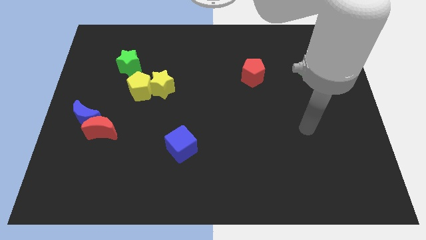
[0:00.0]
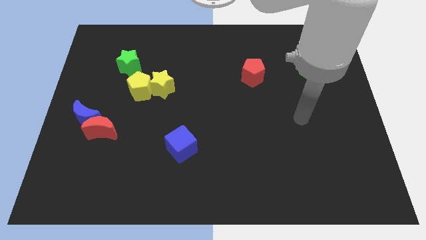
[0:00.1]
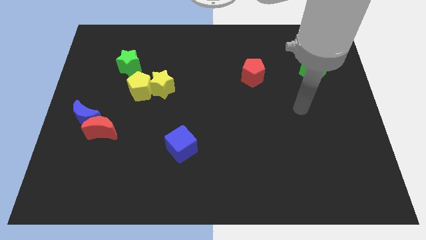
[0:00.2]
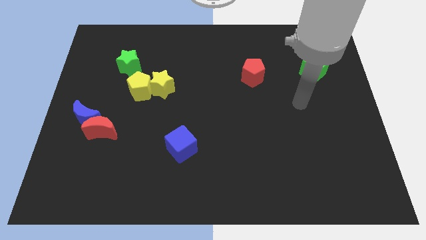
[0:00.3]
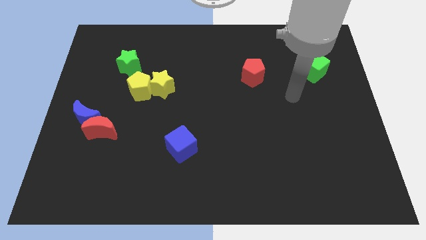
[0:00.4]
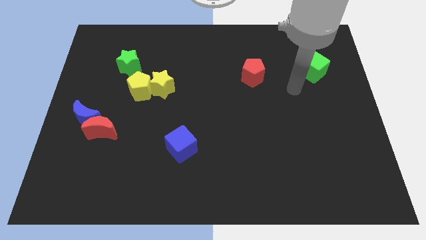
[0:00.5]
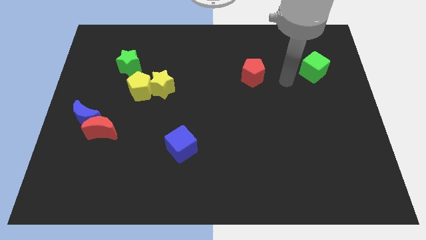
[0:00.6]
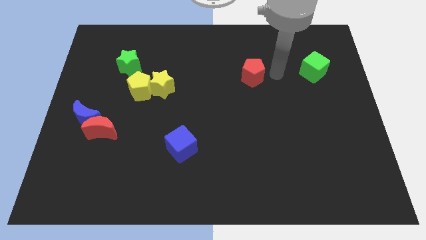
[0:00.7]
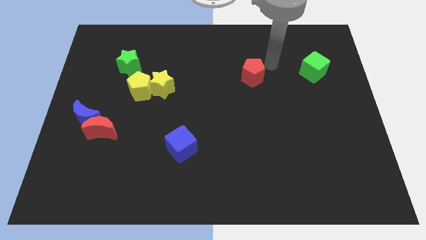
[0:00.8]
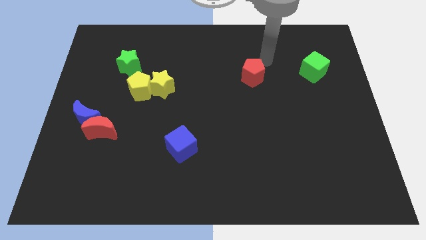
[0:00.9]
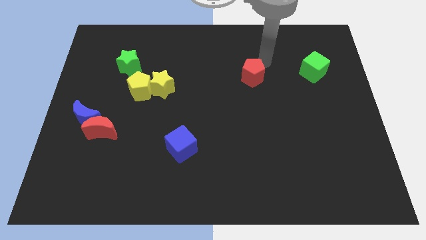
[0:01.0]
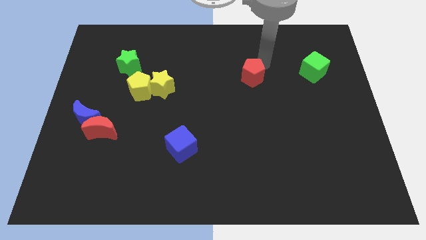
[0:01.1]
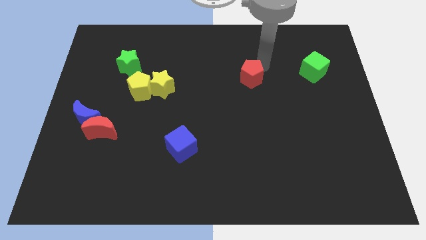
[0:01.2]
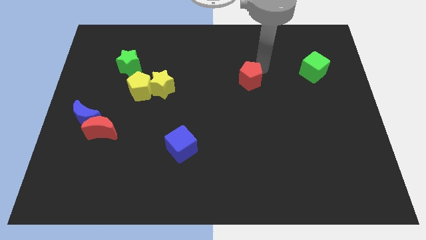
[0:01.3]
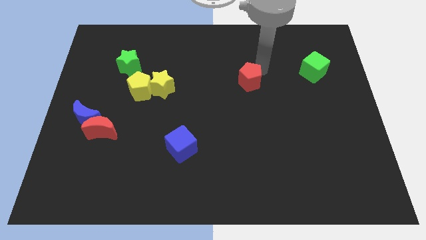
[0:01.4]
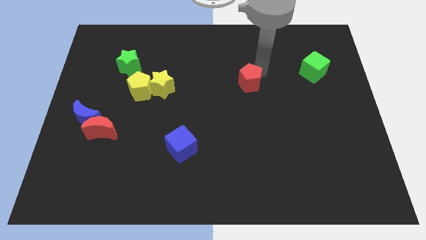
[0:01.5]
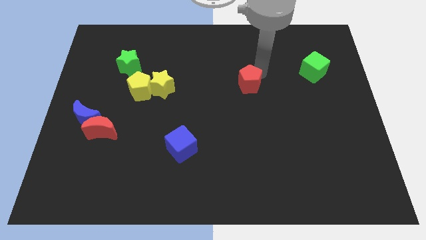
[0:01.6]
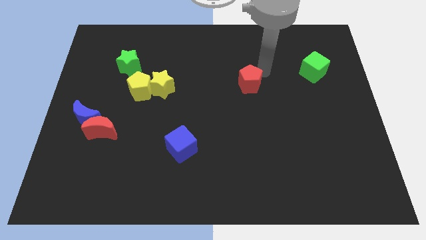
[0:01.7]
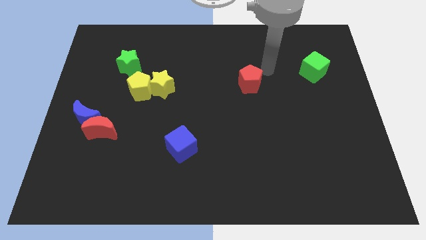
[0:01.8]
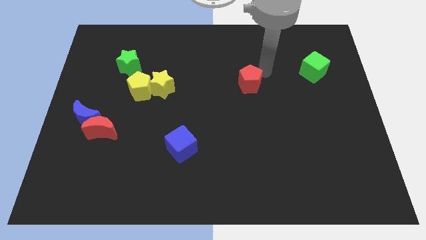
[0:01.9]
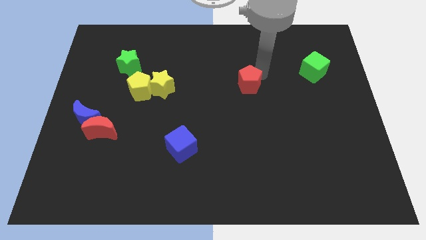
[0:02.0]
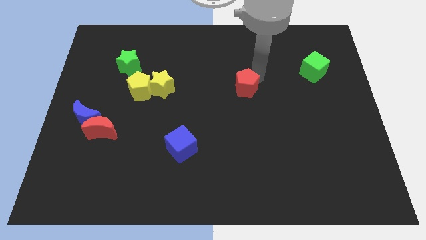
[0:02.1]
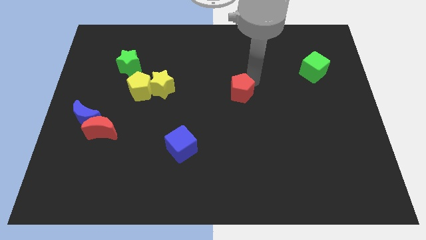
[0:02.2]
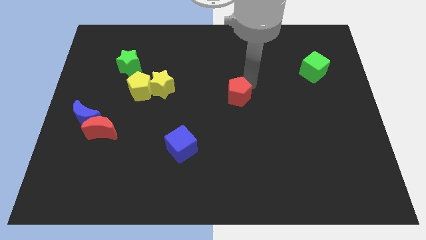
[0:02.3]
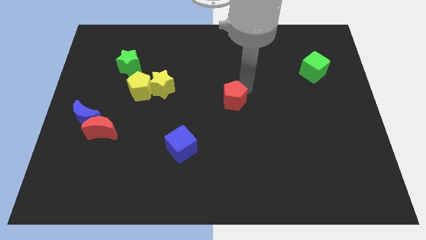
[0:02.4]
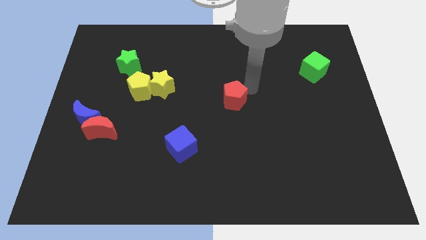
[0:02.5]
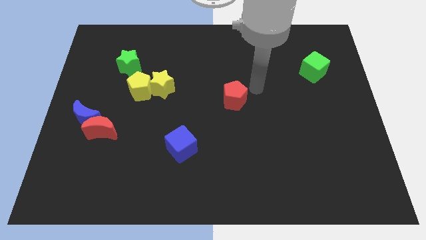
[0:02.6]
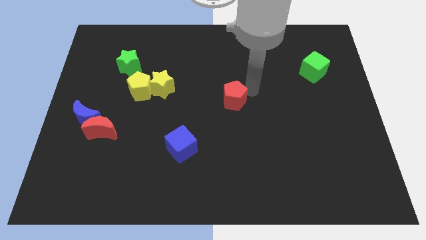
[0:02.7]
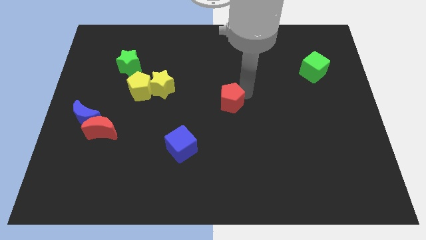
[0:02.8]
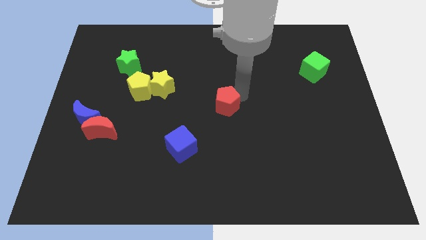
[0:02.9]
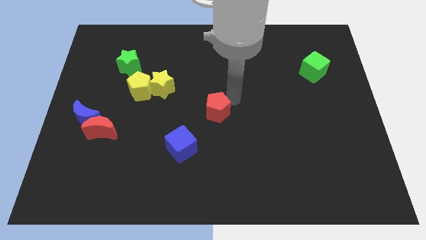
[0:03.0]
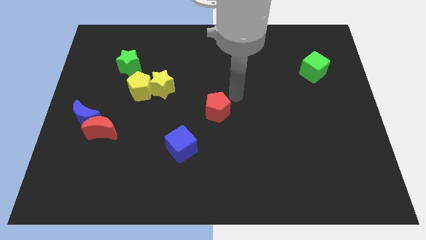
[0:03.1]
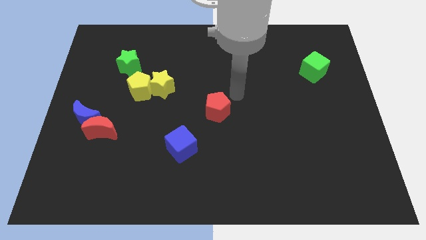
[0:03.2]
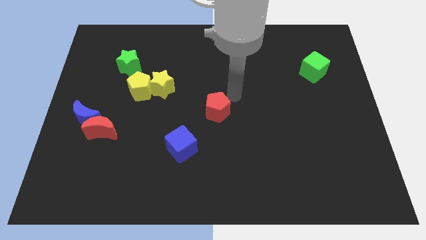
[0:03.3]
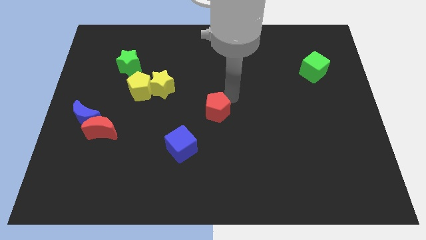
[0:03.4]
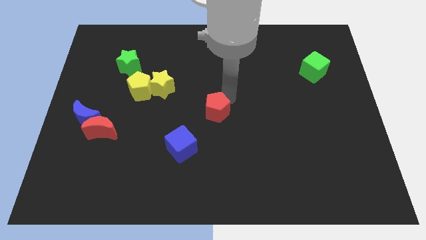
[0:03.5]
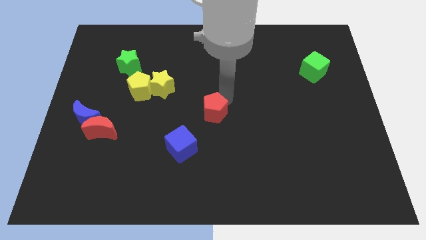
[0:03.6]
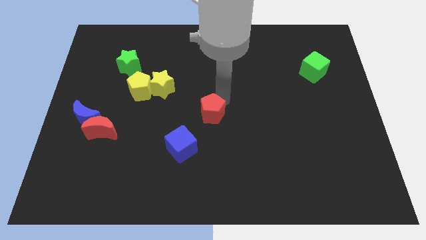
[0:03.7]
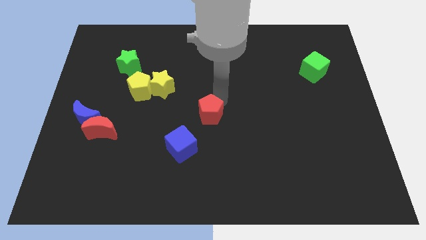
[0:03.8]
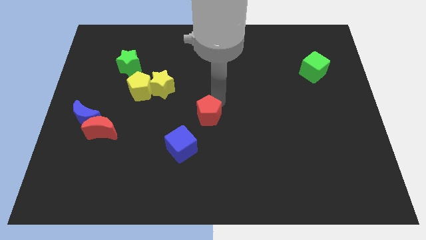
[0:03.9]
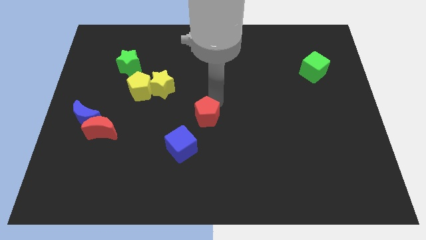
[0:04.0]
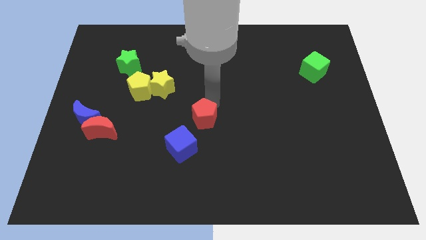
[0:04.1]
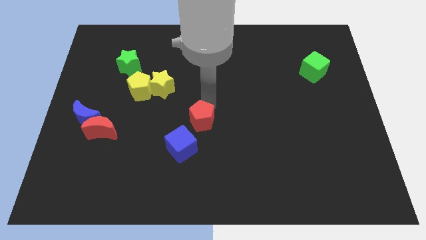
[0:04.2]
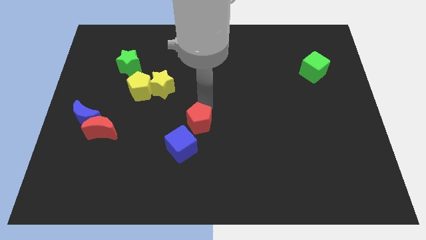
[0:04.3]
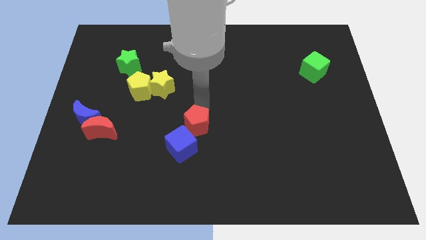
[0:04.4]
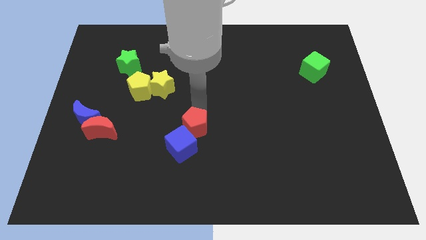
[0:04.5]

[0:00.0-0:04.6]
move the red pentagon close to the blue cube

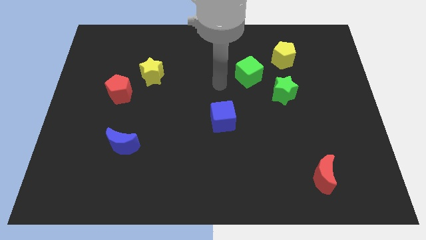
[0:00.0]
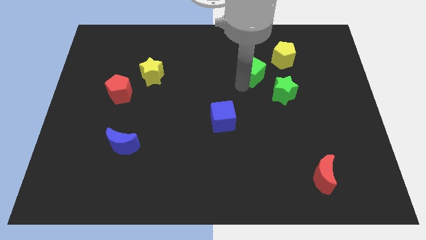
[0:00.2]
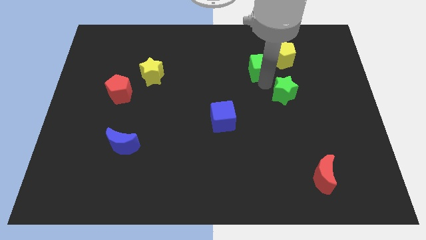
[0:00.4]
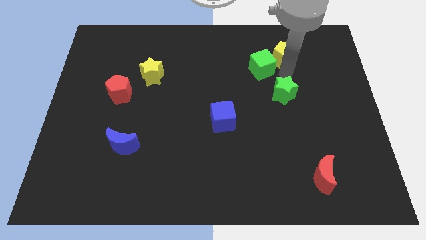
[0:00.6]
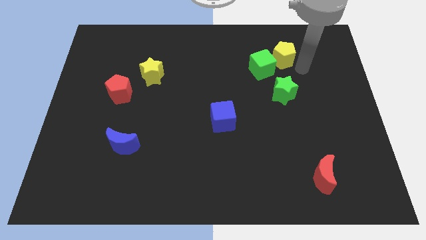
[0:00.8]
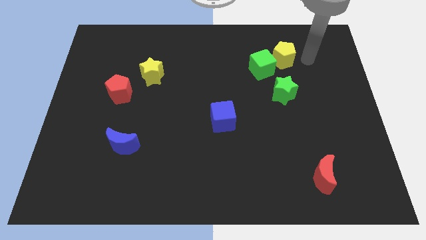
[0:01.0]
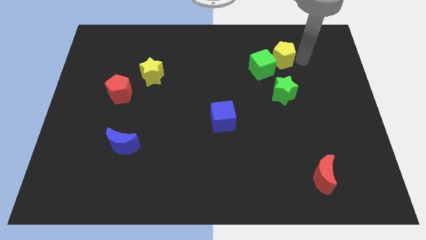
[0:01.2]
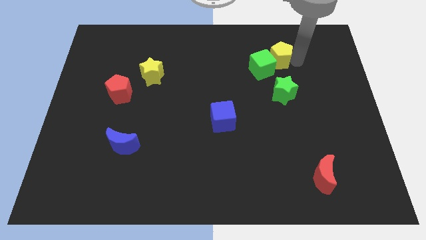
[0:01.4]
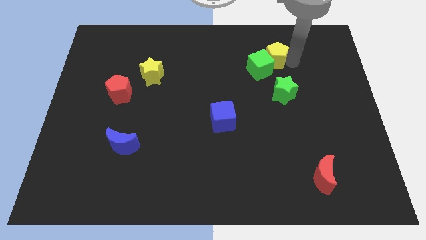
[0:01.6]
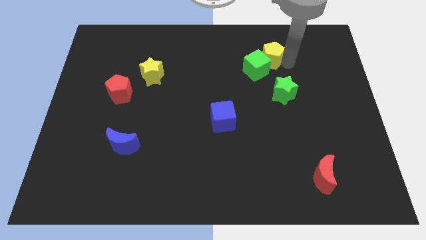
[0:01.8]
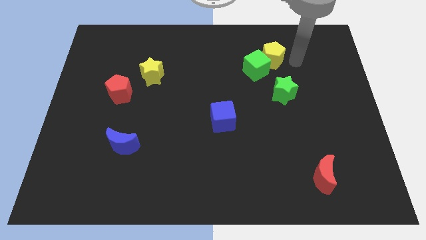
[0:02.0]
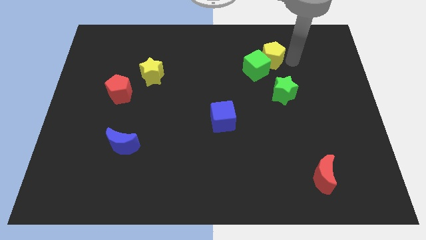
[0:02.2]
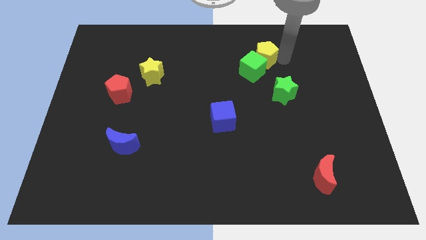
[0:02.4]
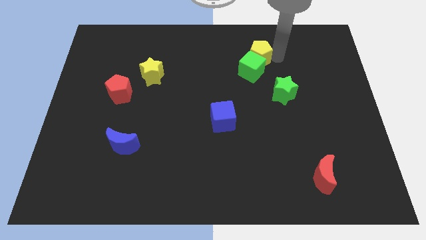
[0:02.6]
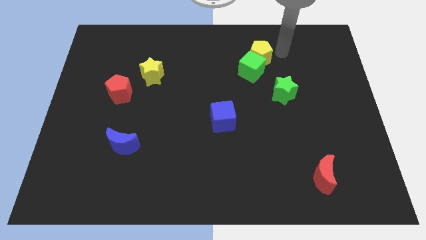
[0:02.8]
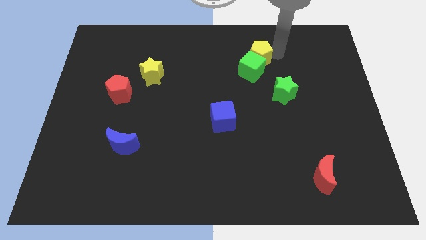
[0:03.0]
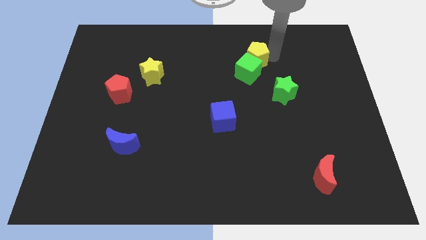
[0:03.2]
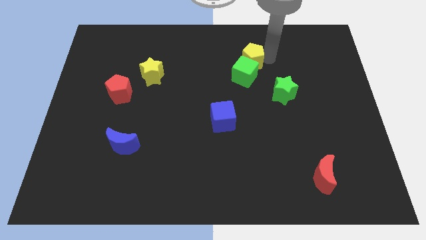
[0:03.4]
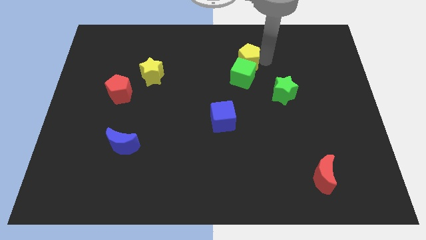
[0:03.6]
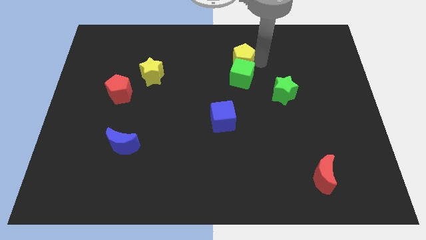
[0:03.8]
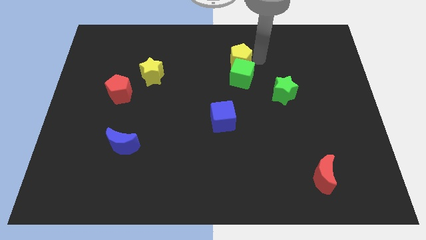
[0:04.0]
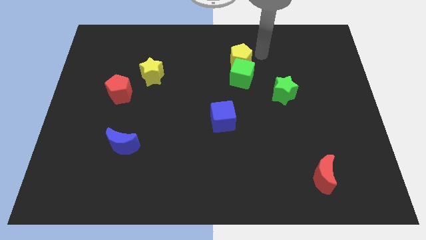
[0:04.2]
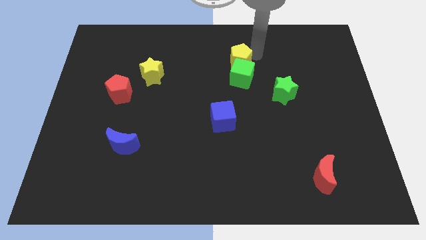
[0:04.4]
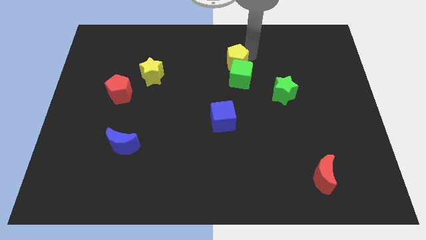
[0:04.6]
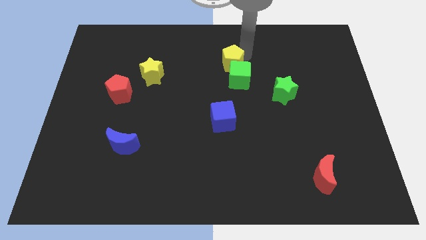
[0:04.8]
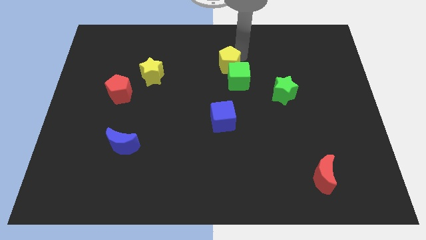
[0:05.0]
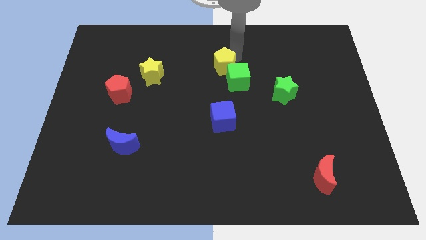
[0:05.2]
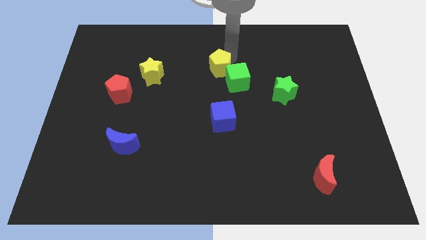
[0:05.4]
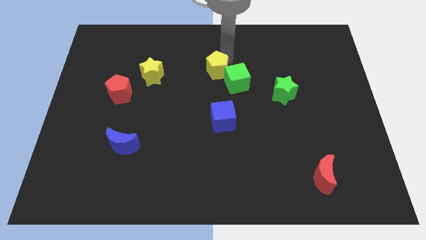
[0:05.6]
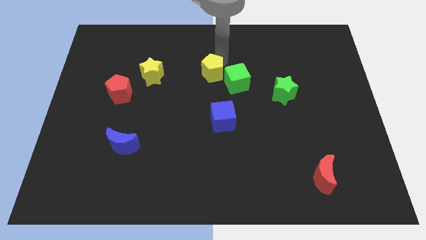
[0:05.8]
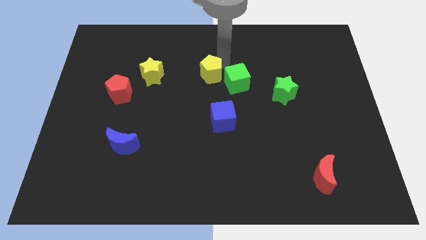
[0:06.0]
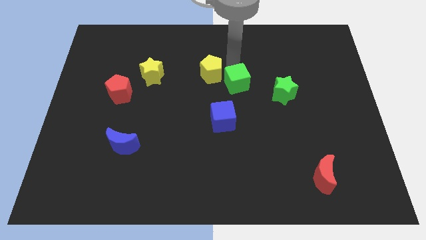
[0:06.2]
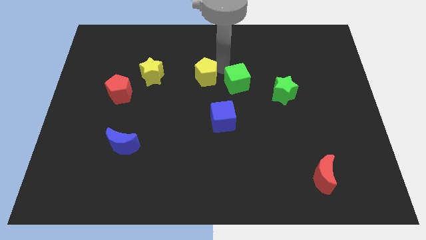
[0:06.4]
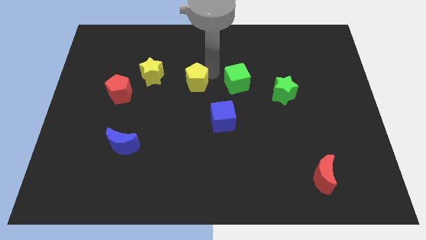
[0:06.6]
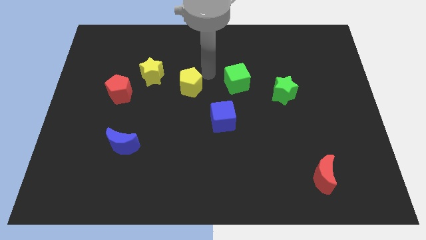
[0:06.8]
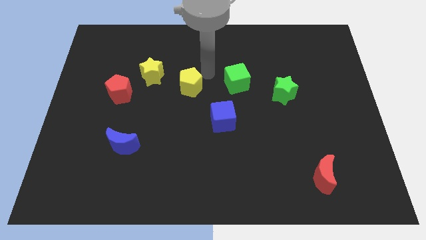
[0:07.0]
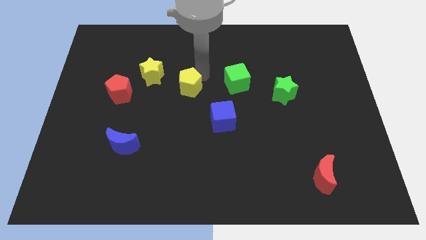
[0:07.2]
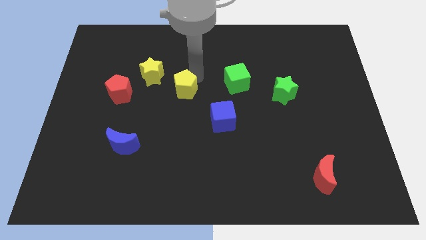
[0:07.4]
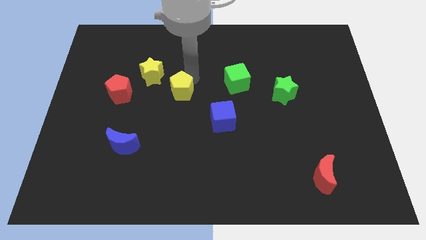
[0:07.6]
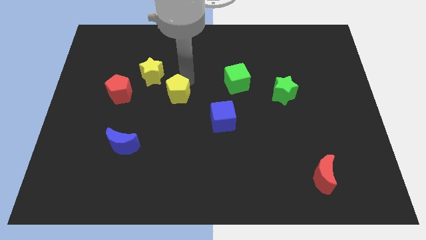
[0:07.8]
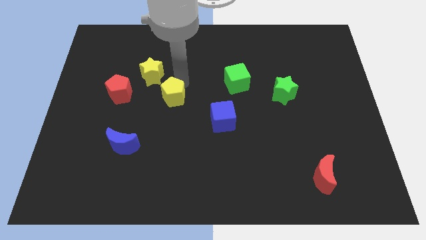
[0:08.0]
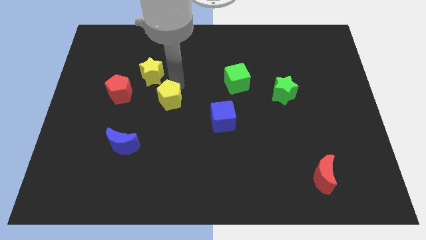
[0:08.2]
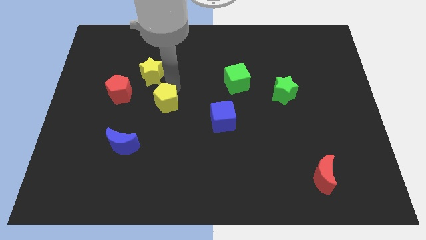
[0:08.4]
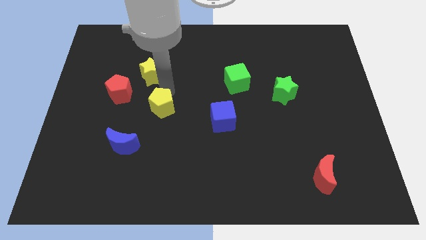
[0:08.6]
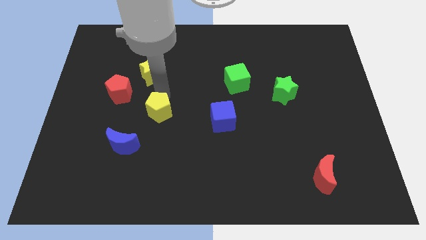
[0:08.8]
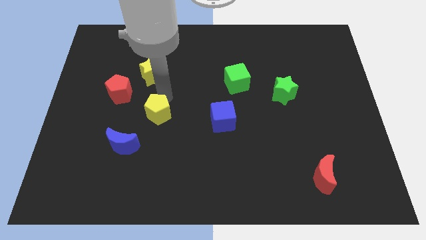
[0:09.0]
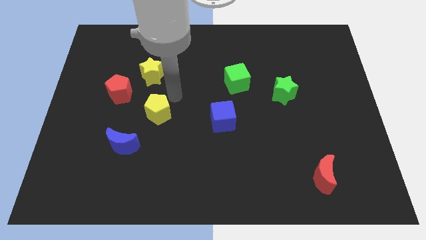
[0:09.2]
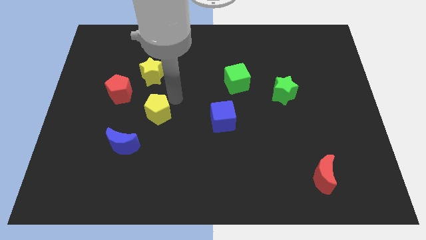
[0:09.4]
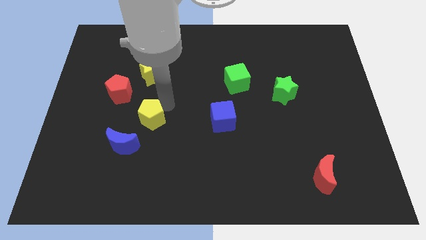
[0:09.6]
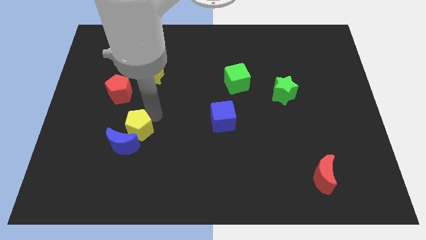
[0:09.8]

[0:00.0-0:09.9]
slide the yellow pentagon to the blue moon
